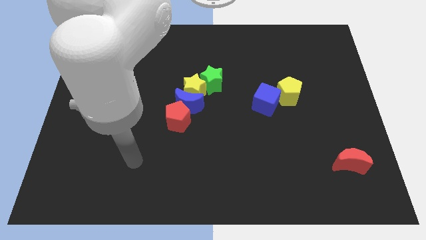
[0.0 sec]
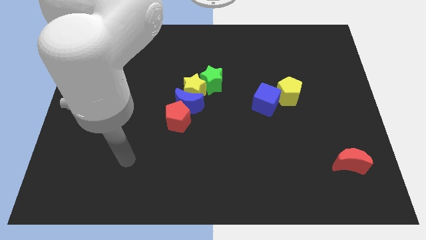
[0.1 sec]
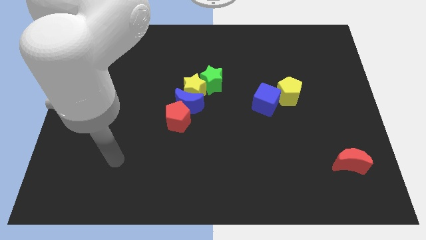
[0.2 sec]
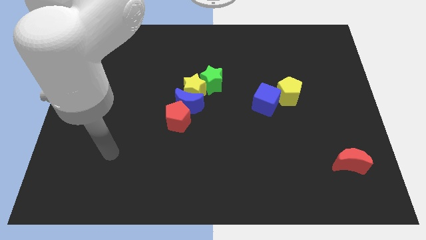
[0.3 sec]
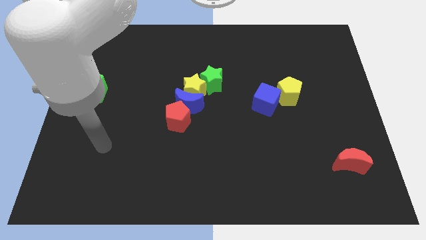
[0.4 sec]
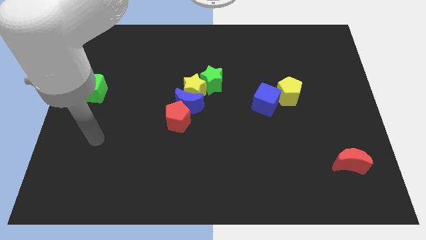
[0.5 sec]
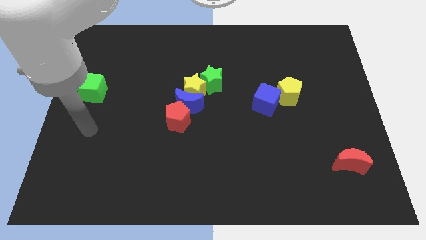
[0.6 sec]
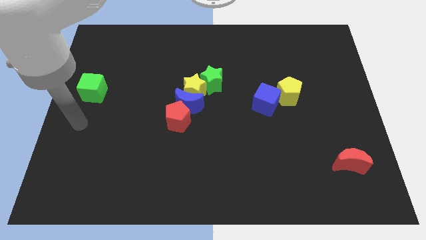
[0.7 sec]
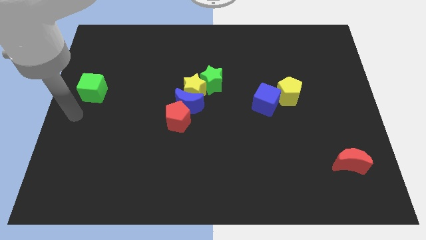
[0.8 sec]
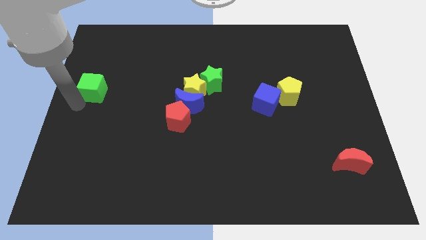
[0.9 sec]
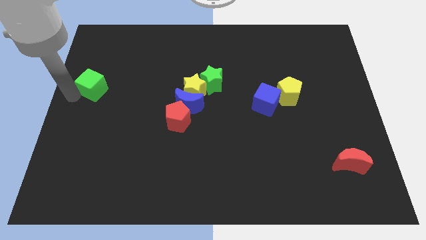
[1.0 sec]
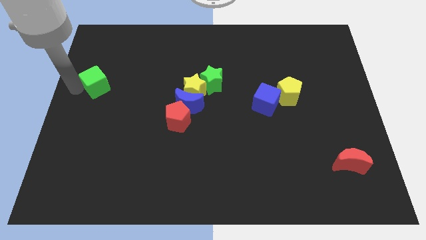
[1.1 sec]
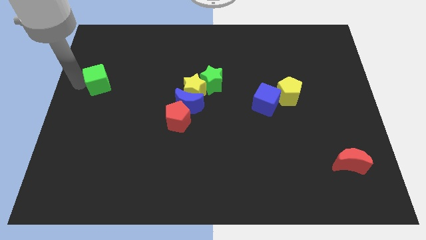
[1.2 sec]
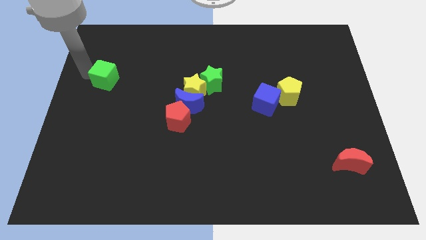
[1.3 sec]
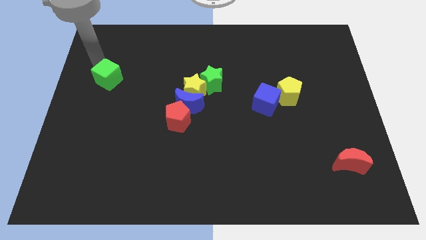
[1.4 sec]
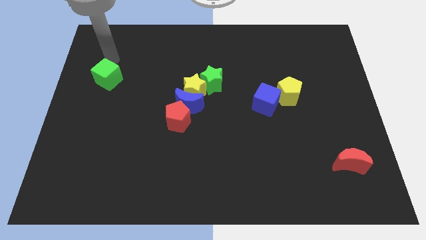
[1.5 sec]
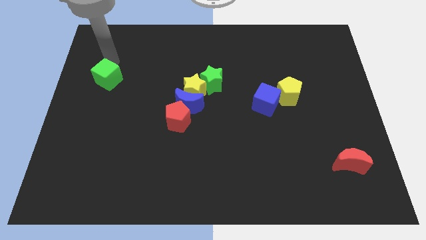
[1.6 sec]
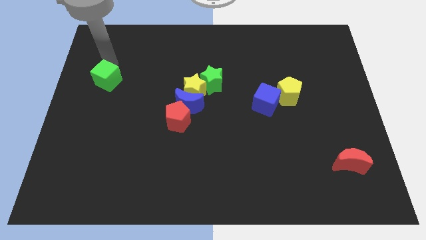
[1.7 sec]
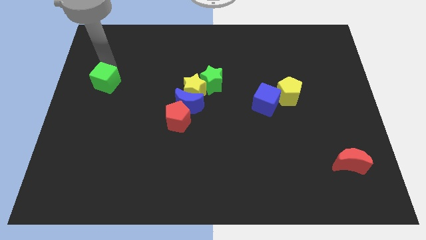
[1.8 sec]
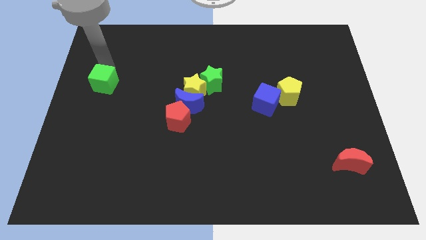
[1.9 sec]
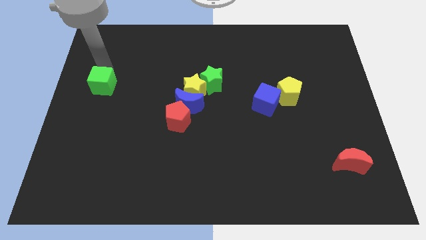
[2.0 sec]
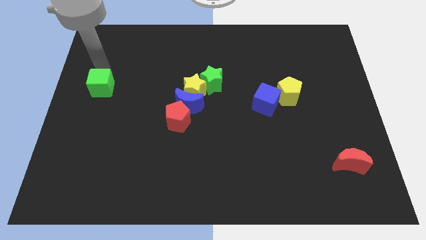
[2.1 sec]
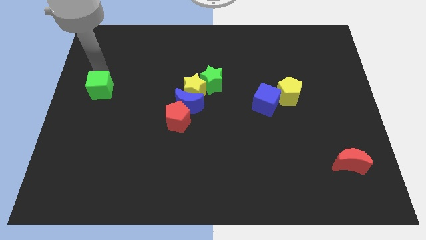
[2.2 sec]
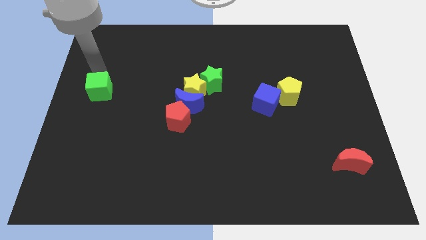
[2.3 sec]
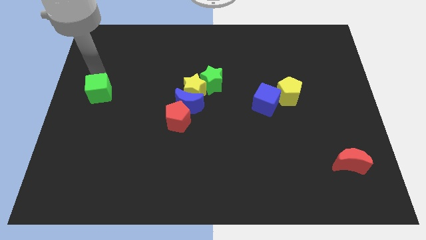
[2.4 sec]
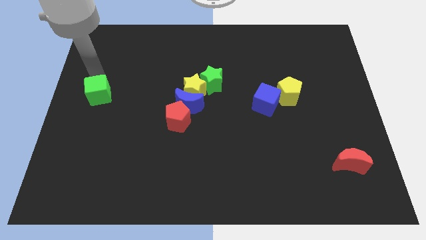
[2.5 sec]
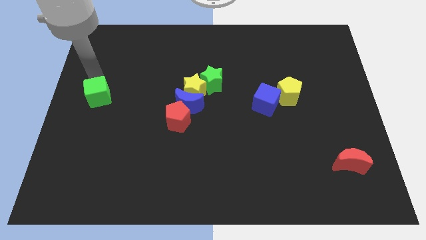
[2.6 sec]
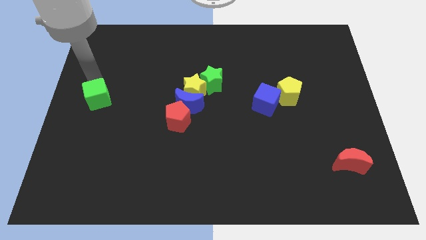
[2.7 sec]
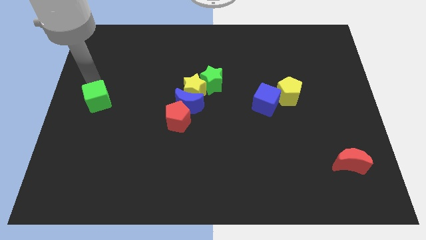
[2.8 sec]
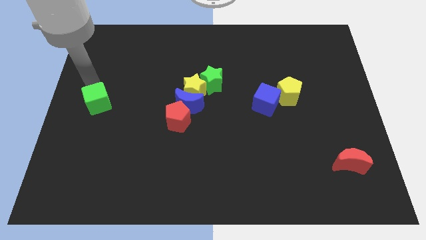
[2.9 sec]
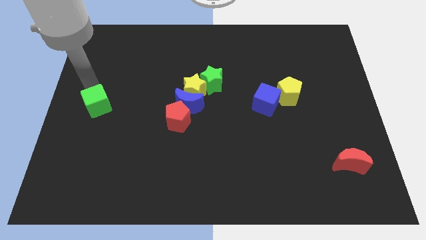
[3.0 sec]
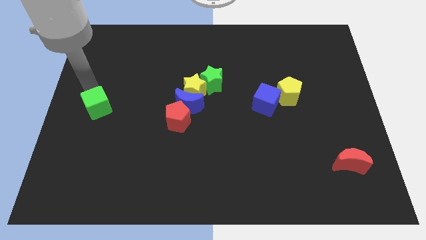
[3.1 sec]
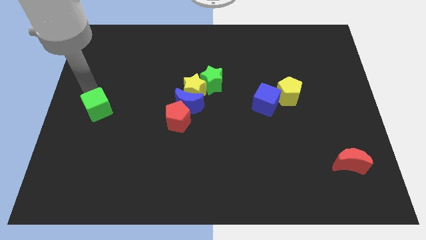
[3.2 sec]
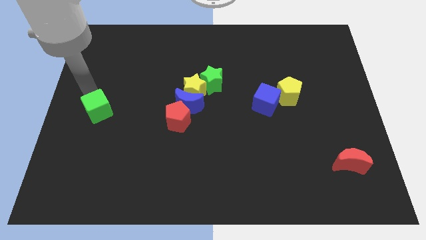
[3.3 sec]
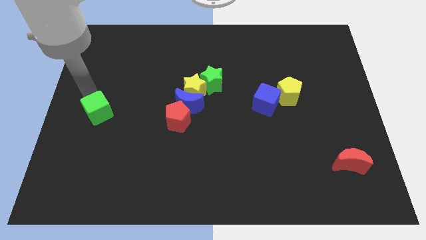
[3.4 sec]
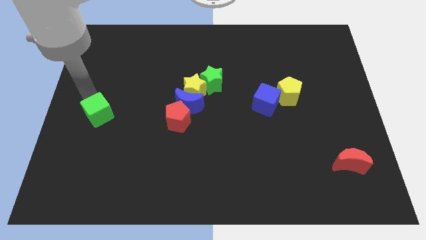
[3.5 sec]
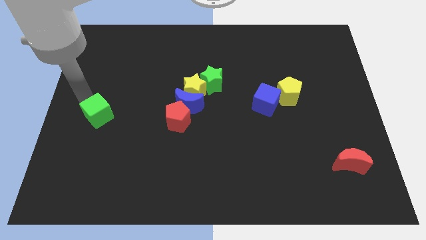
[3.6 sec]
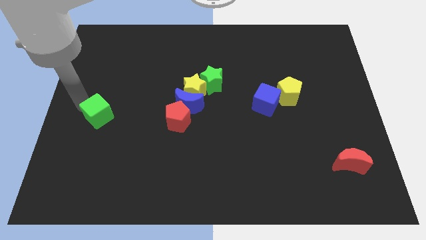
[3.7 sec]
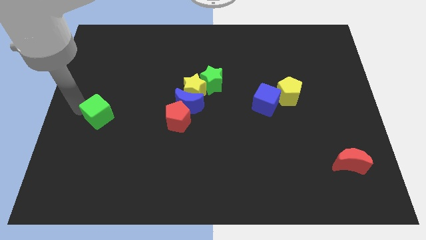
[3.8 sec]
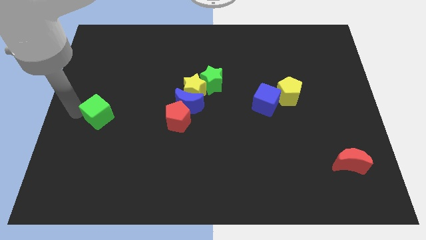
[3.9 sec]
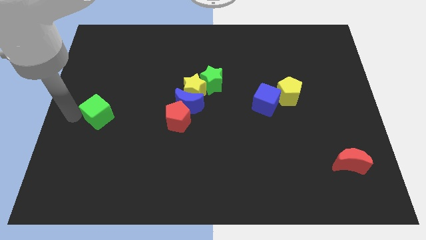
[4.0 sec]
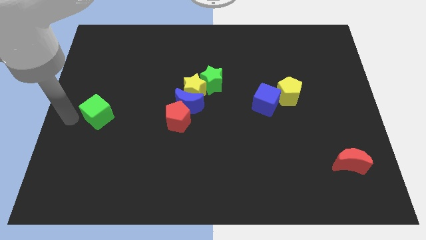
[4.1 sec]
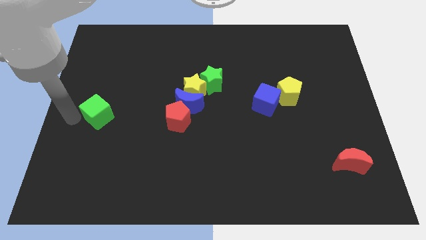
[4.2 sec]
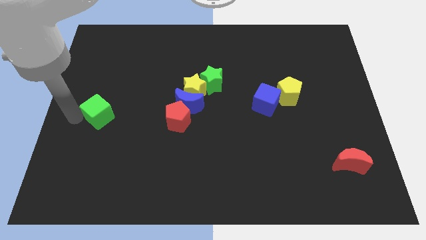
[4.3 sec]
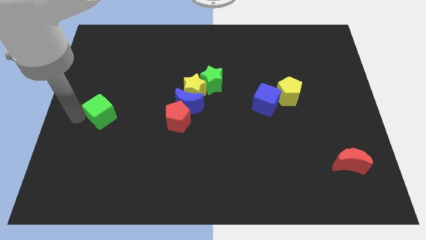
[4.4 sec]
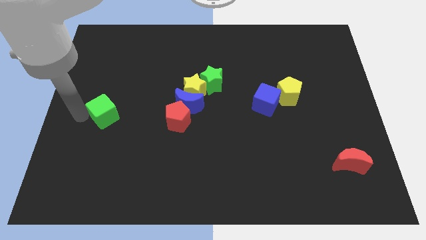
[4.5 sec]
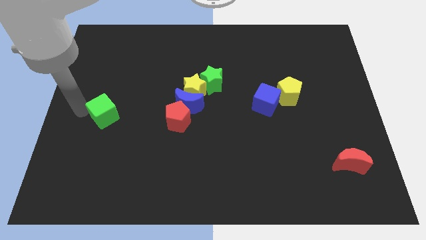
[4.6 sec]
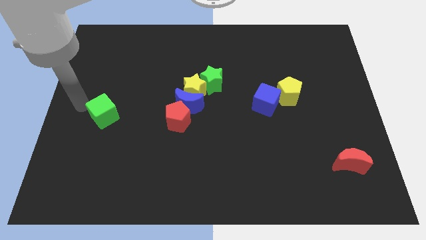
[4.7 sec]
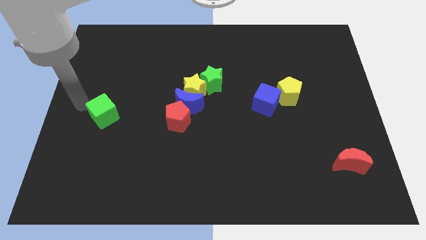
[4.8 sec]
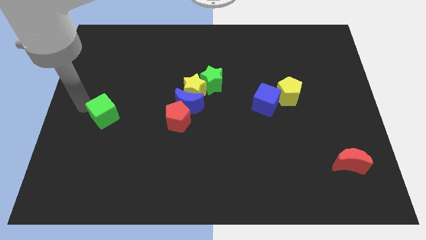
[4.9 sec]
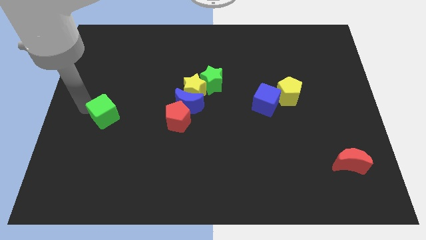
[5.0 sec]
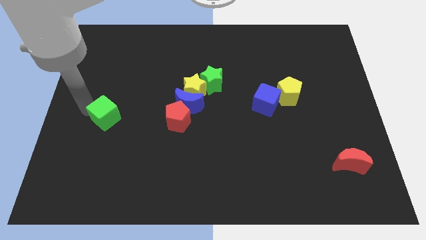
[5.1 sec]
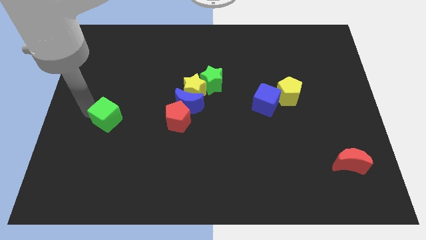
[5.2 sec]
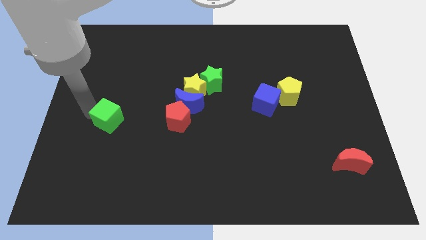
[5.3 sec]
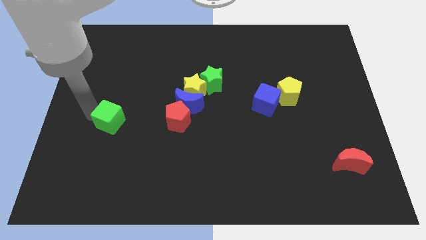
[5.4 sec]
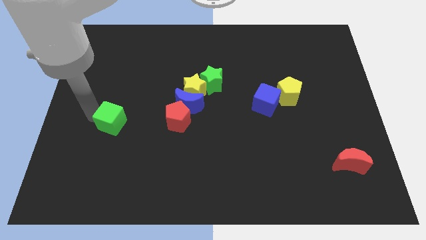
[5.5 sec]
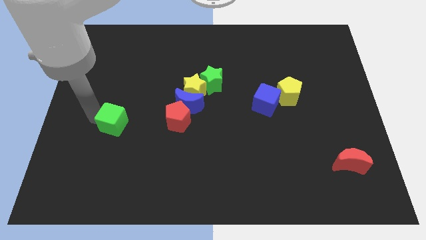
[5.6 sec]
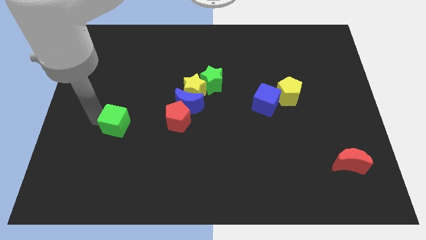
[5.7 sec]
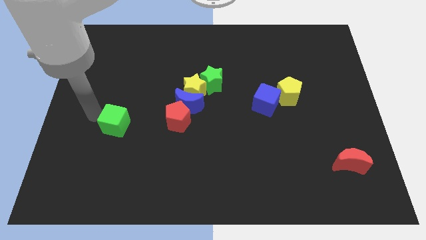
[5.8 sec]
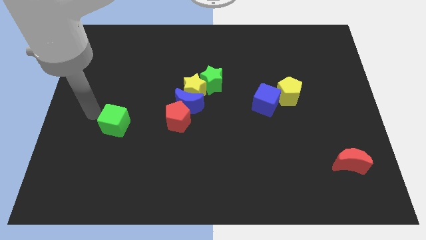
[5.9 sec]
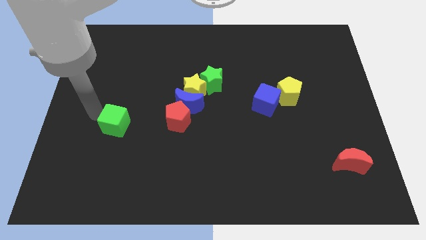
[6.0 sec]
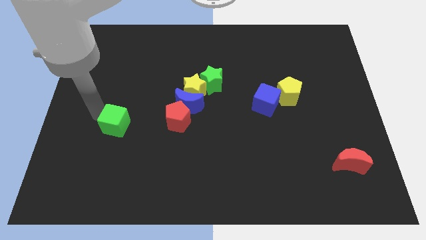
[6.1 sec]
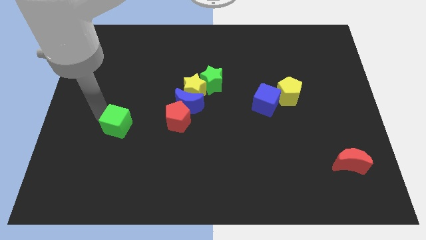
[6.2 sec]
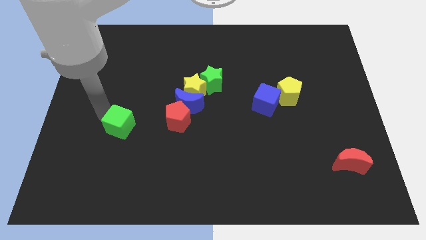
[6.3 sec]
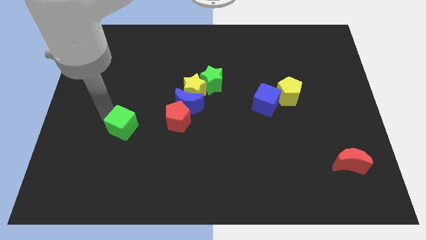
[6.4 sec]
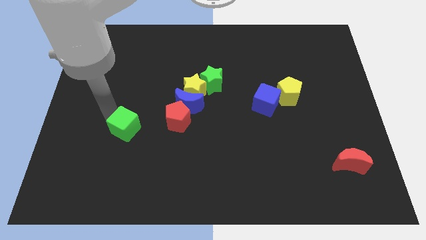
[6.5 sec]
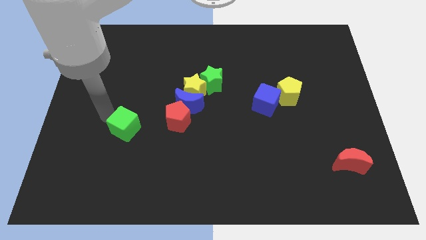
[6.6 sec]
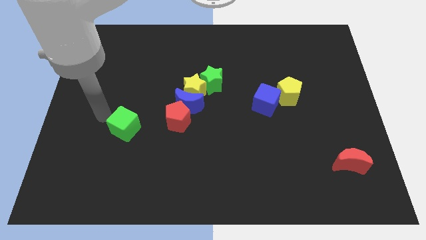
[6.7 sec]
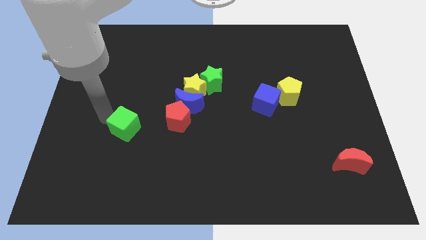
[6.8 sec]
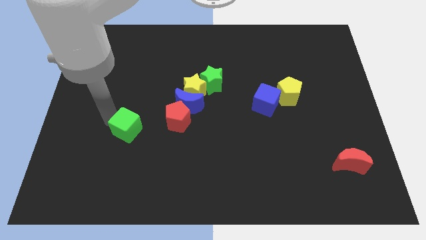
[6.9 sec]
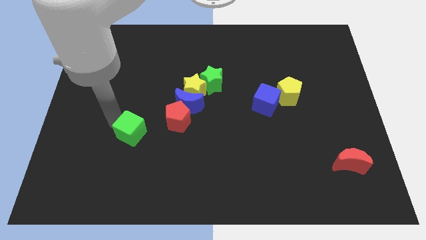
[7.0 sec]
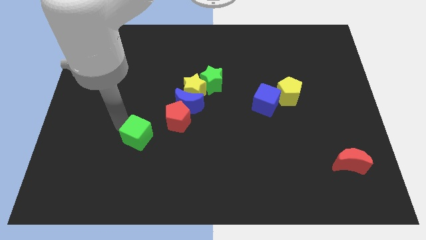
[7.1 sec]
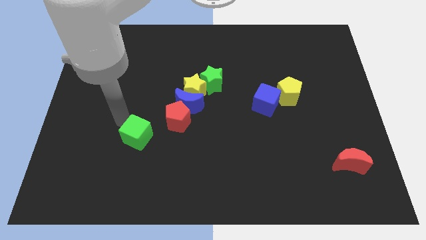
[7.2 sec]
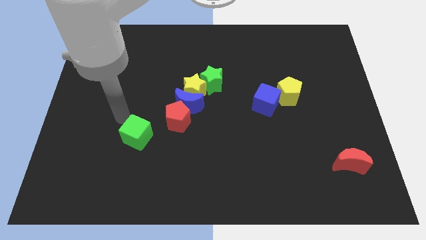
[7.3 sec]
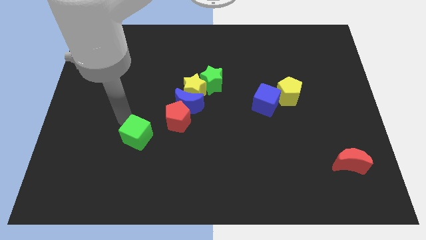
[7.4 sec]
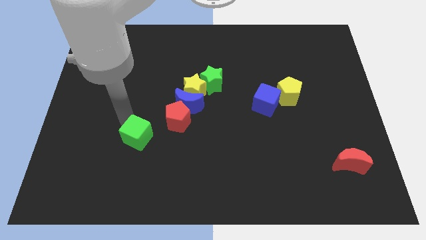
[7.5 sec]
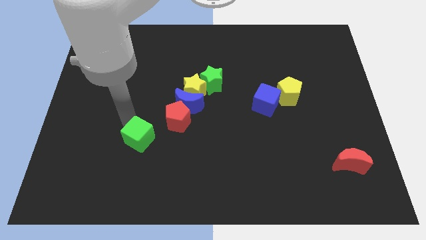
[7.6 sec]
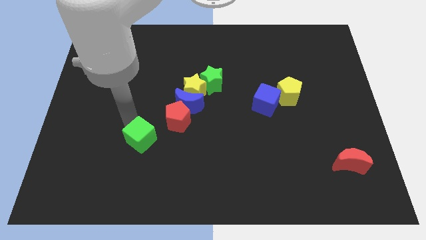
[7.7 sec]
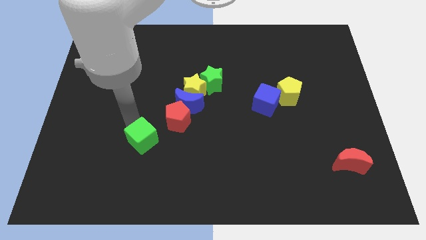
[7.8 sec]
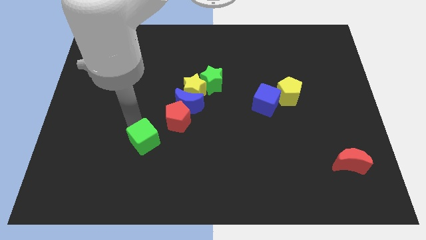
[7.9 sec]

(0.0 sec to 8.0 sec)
push the green cube down and then to the right
